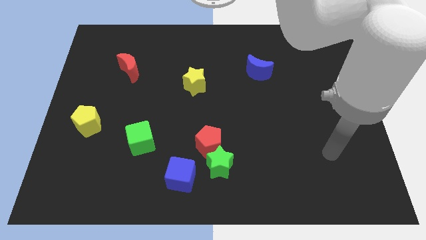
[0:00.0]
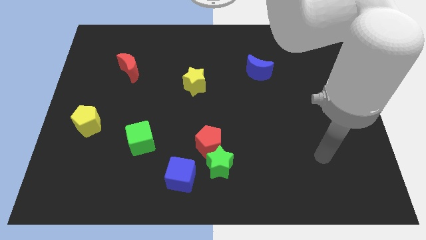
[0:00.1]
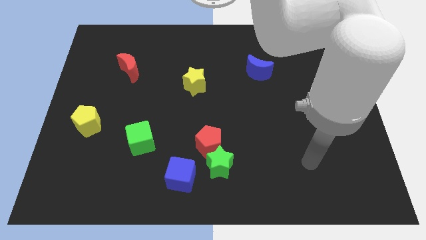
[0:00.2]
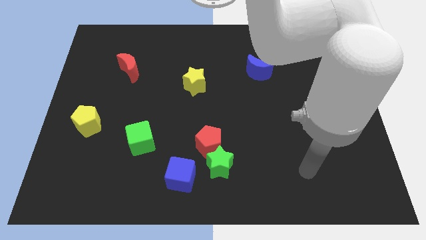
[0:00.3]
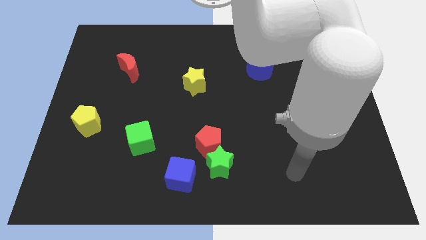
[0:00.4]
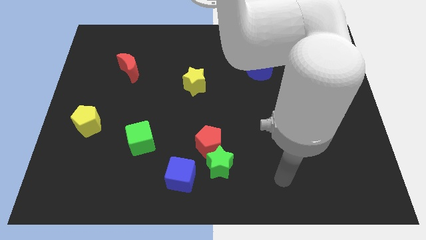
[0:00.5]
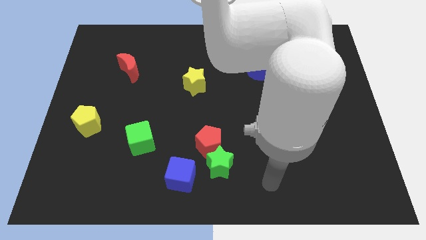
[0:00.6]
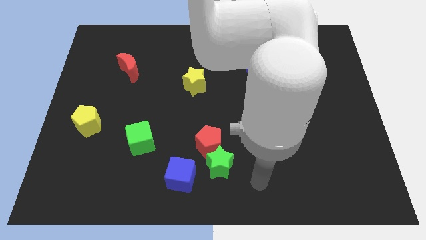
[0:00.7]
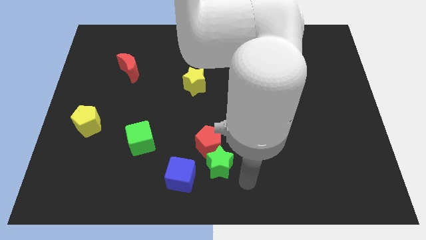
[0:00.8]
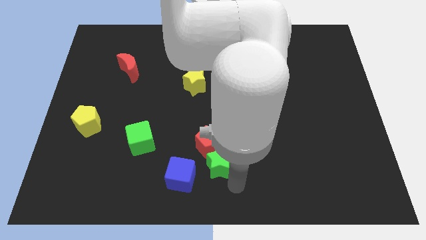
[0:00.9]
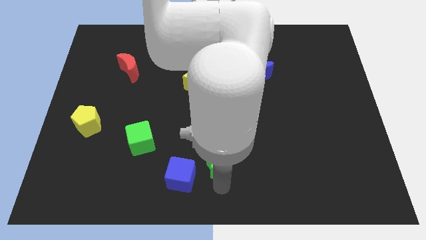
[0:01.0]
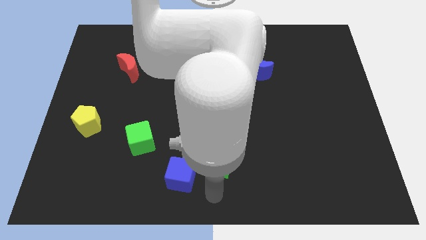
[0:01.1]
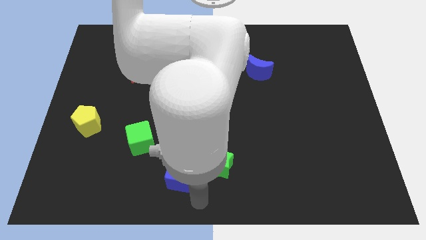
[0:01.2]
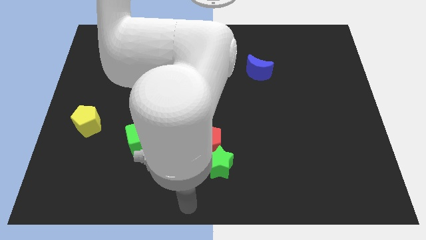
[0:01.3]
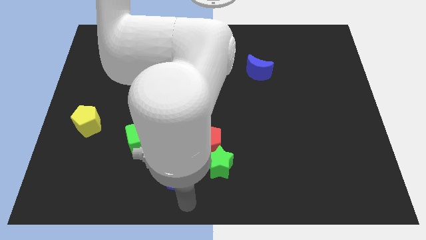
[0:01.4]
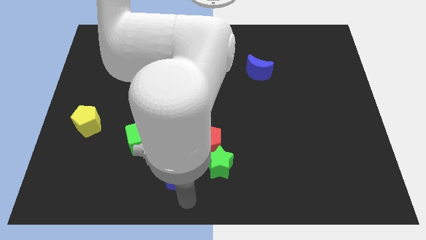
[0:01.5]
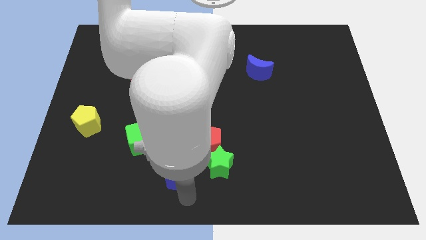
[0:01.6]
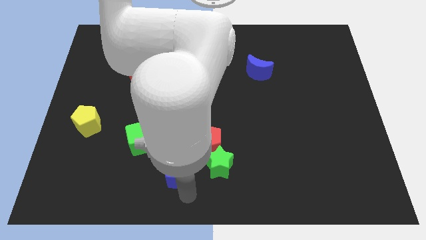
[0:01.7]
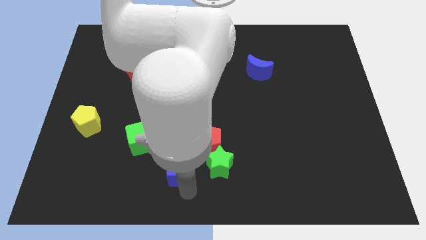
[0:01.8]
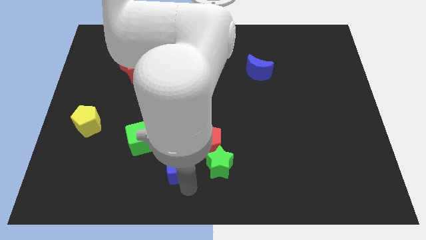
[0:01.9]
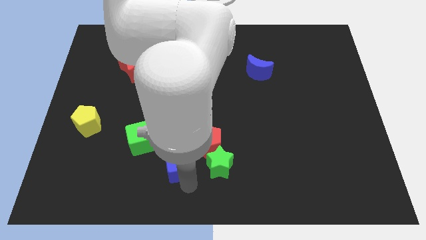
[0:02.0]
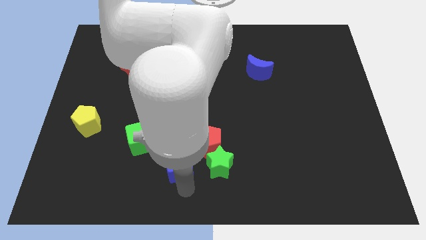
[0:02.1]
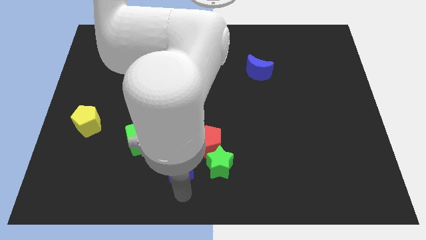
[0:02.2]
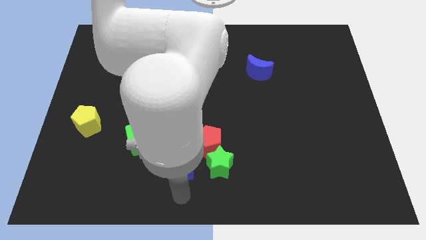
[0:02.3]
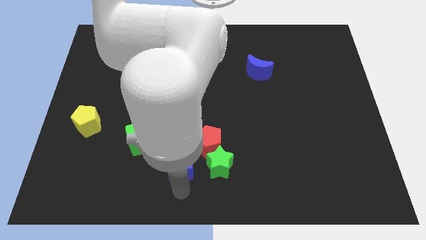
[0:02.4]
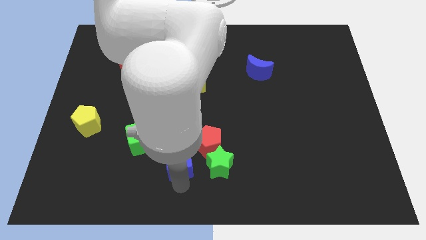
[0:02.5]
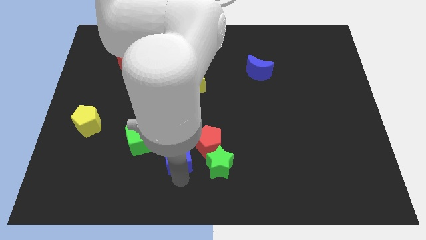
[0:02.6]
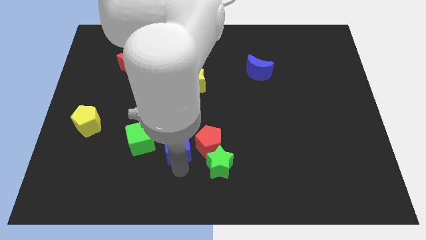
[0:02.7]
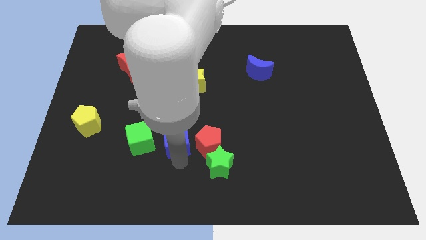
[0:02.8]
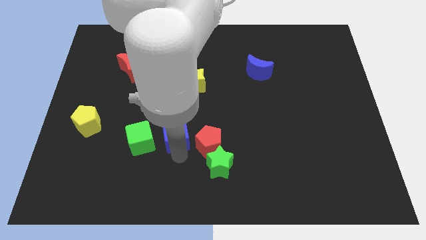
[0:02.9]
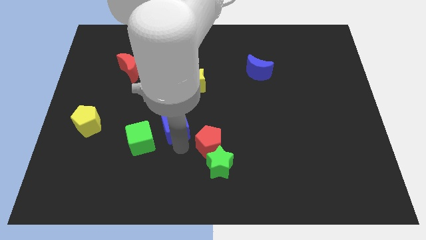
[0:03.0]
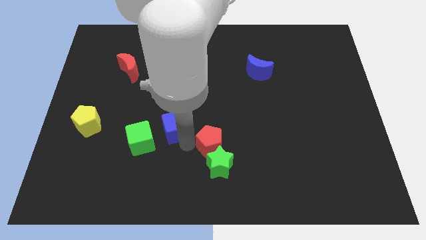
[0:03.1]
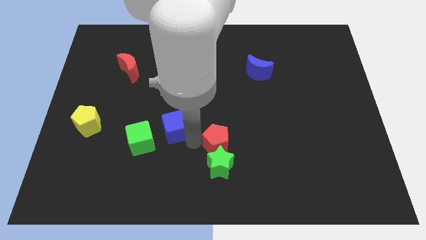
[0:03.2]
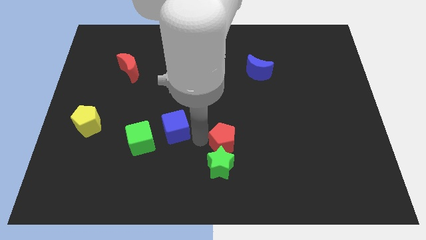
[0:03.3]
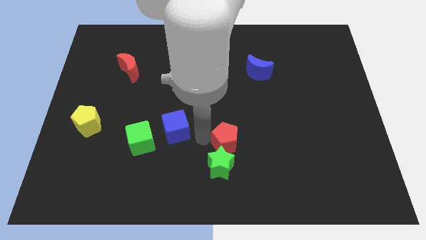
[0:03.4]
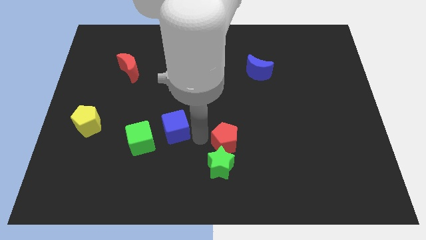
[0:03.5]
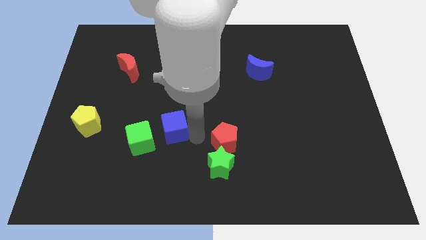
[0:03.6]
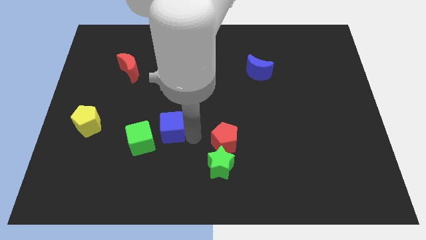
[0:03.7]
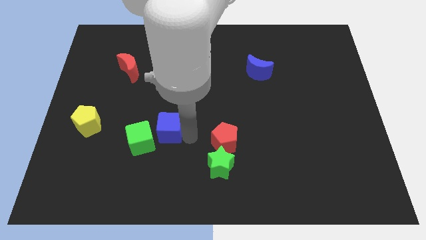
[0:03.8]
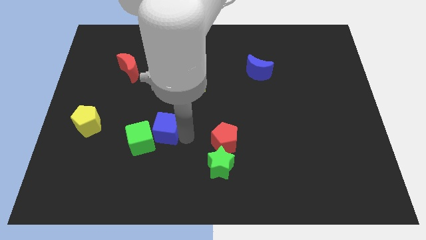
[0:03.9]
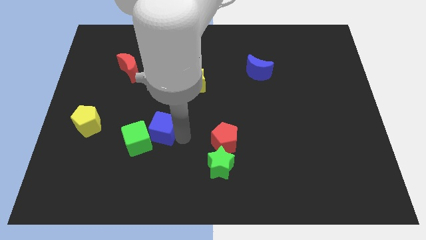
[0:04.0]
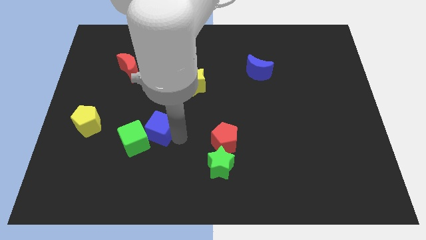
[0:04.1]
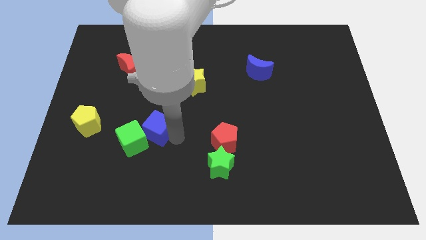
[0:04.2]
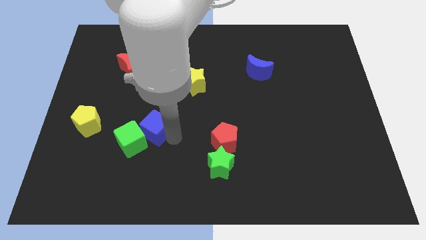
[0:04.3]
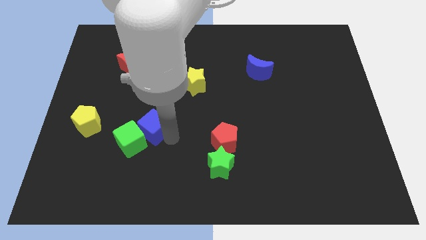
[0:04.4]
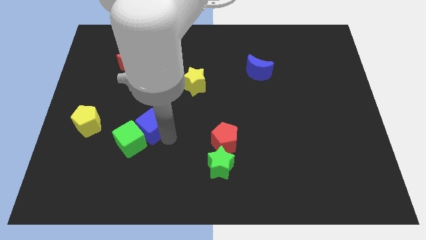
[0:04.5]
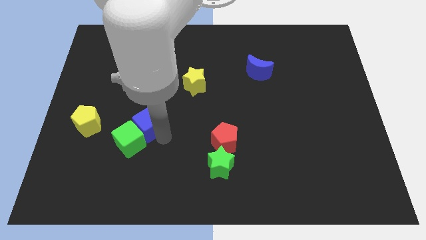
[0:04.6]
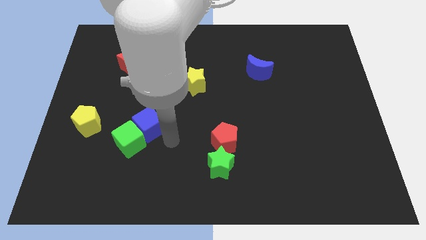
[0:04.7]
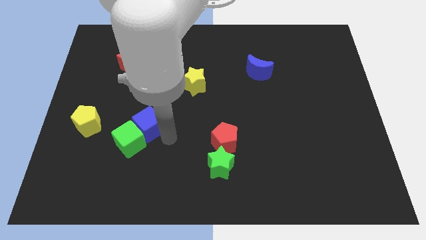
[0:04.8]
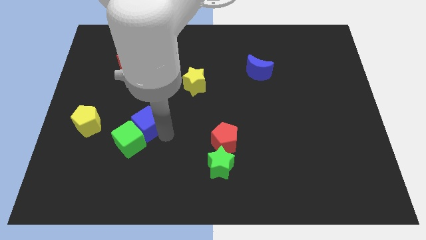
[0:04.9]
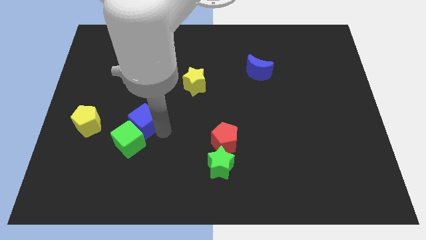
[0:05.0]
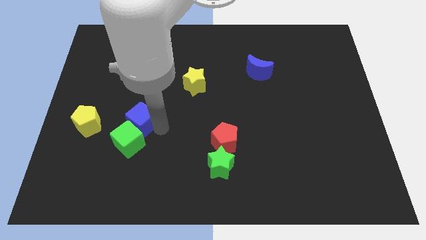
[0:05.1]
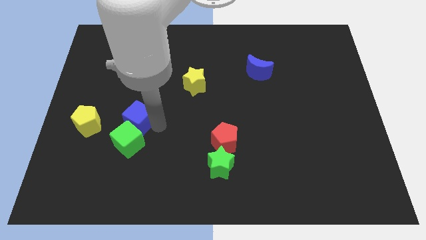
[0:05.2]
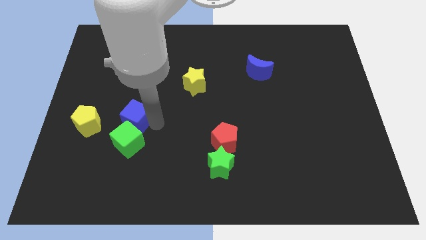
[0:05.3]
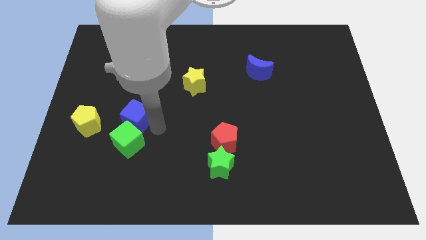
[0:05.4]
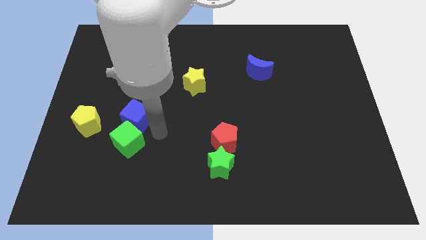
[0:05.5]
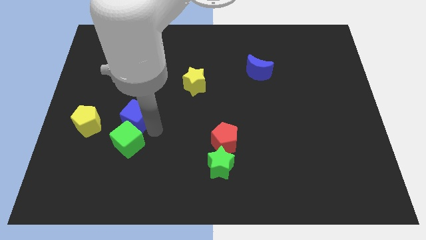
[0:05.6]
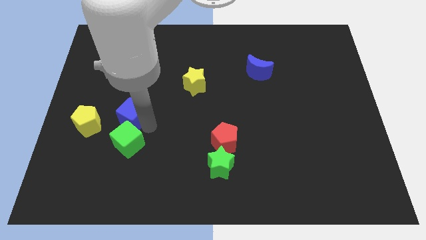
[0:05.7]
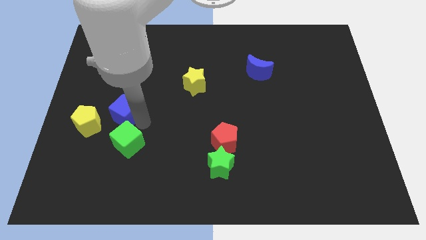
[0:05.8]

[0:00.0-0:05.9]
move the blue cube diagonally up and to the right of the yellow pentagon

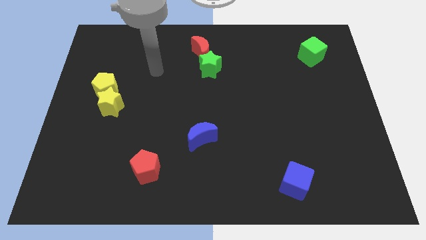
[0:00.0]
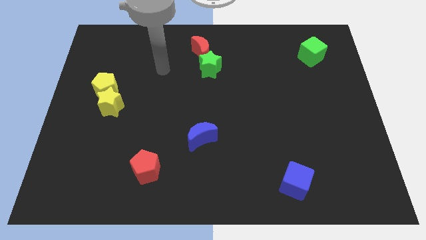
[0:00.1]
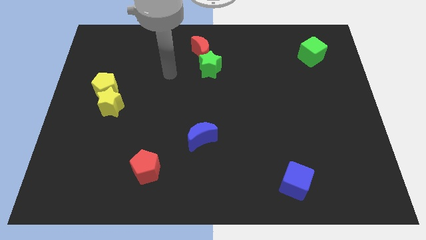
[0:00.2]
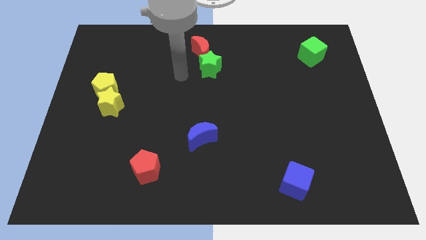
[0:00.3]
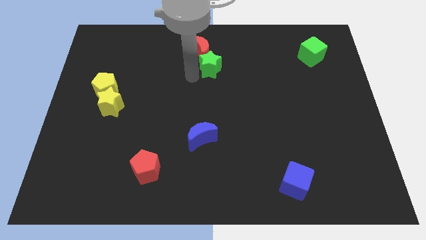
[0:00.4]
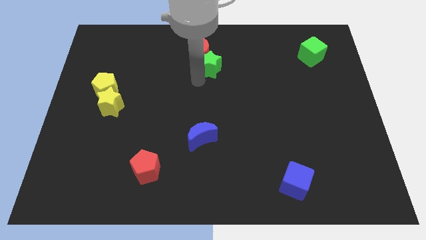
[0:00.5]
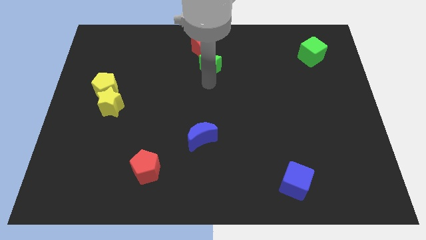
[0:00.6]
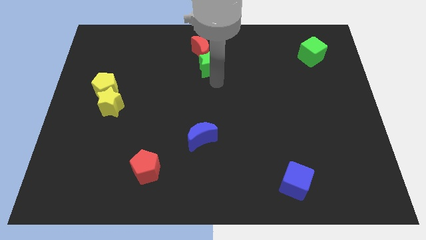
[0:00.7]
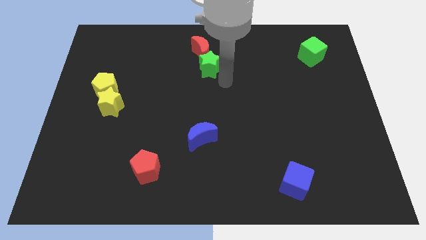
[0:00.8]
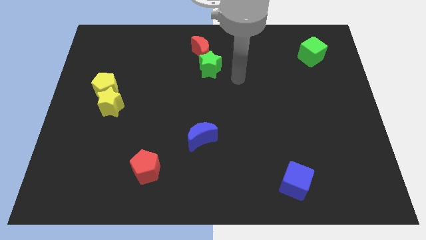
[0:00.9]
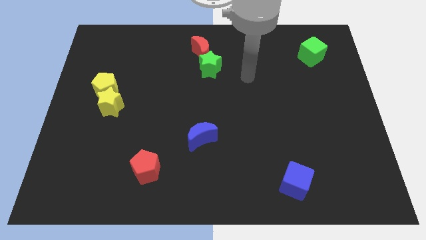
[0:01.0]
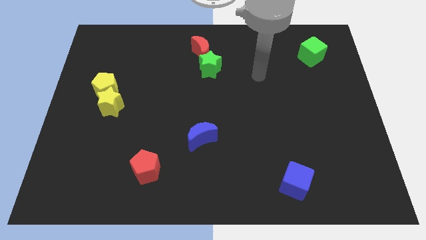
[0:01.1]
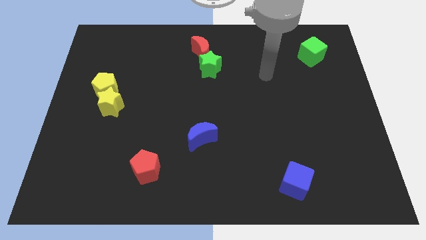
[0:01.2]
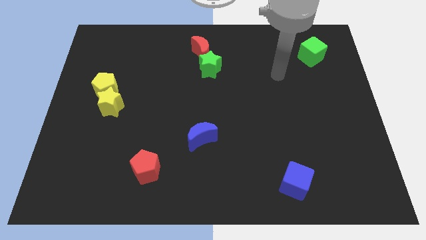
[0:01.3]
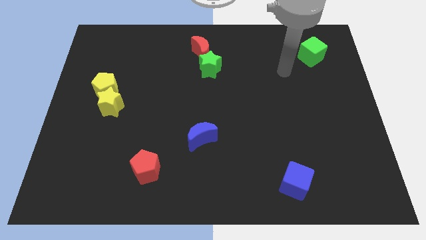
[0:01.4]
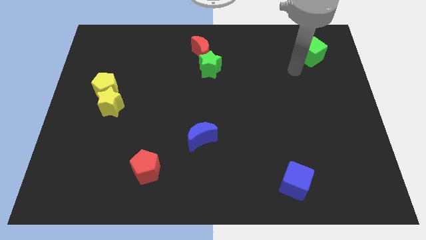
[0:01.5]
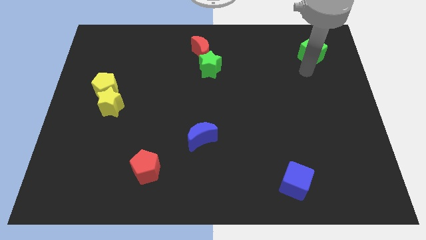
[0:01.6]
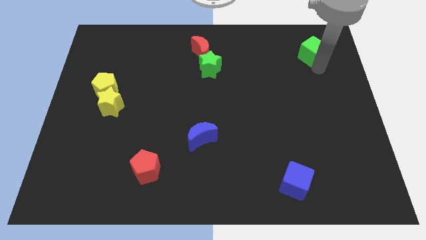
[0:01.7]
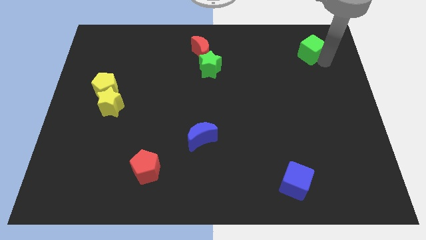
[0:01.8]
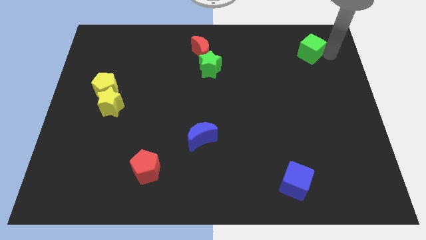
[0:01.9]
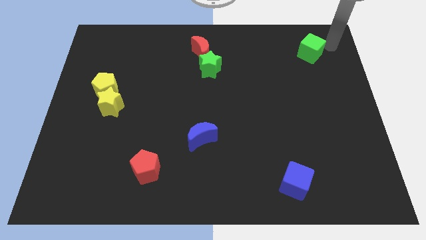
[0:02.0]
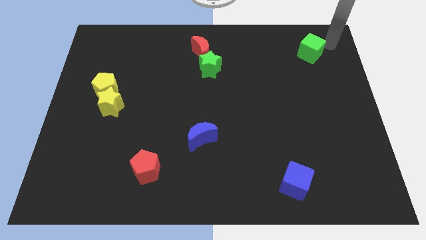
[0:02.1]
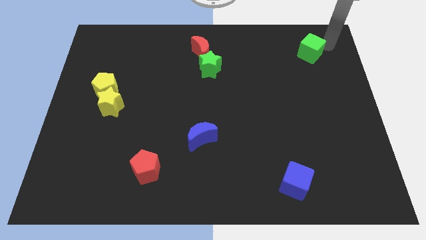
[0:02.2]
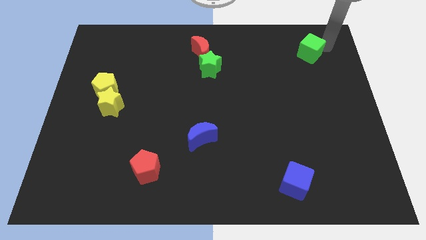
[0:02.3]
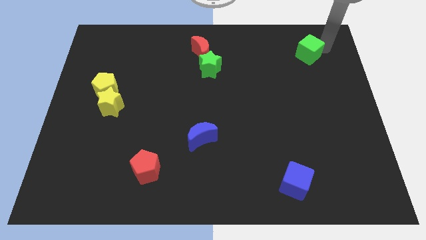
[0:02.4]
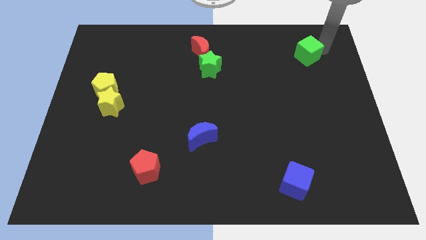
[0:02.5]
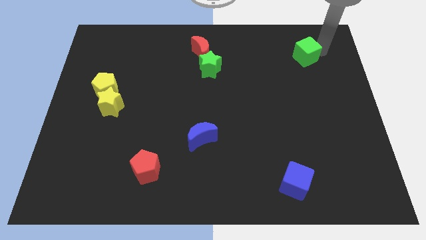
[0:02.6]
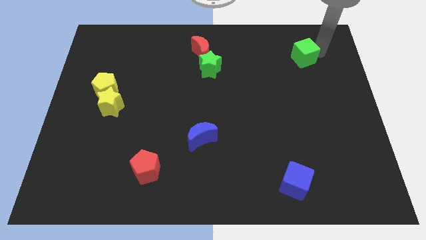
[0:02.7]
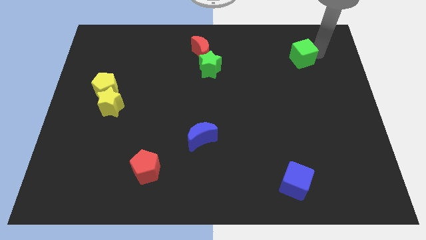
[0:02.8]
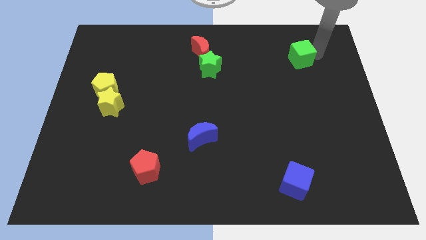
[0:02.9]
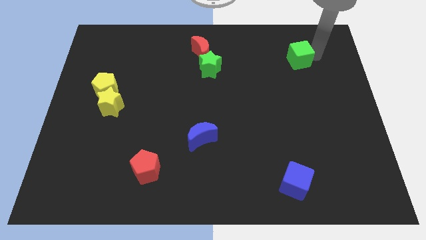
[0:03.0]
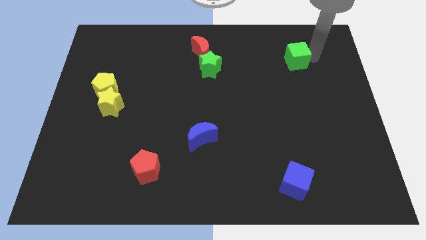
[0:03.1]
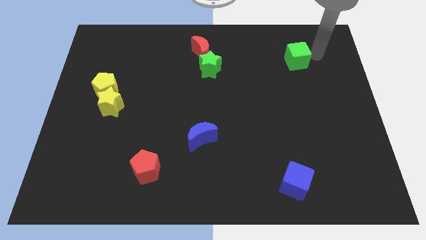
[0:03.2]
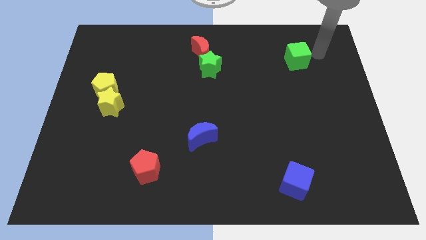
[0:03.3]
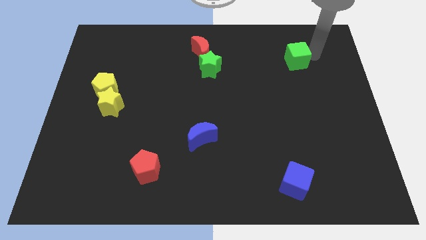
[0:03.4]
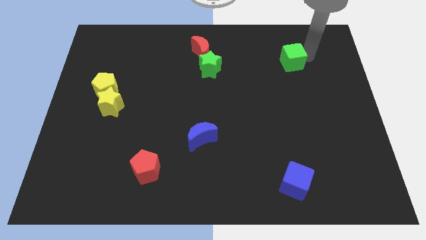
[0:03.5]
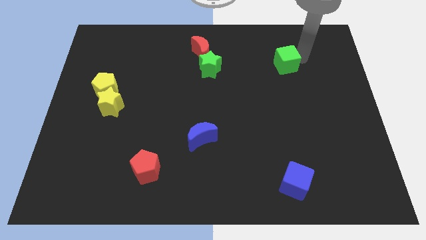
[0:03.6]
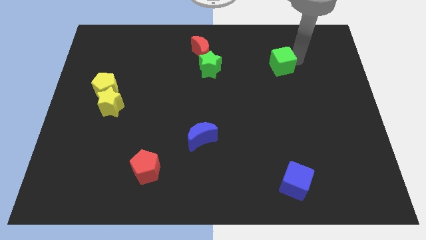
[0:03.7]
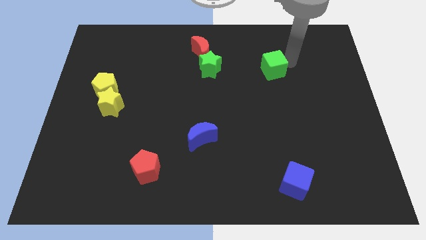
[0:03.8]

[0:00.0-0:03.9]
slide the green cube to the right of the green star
